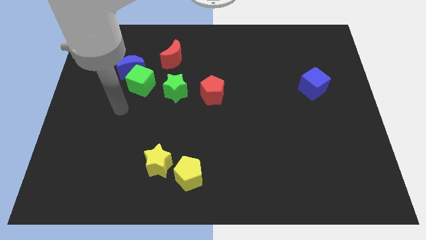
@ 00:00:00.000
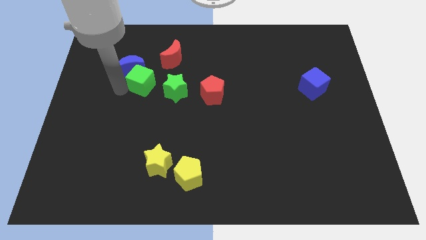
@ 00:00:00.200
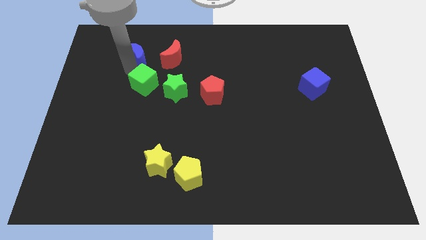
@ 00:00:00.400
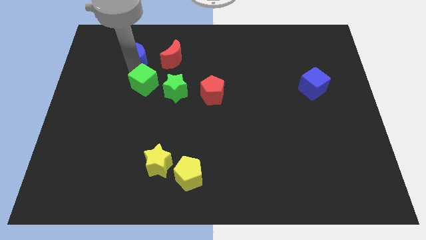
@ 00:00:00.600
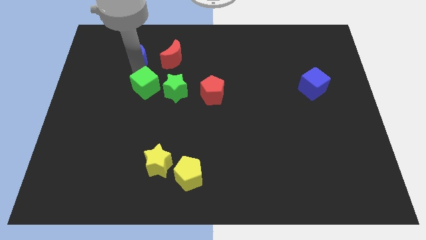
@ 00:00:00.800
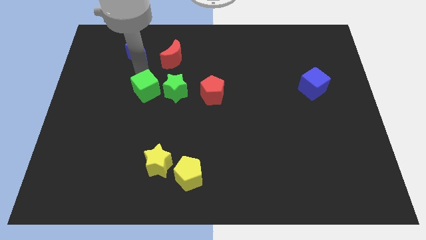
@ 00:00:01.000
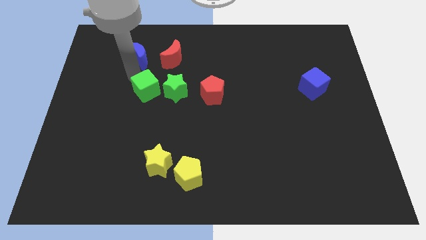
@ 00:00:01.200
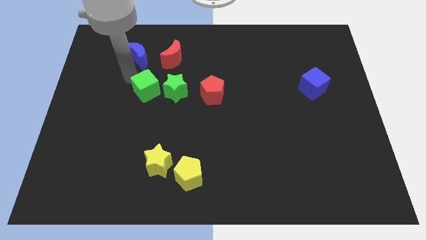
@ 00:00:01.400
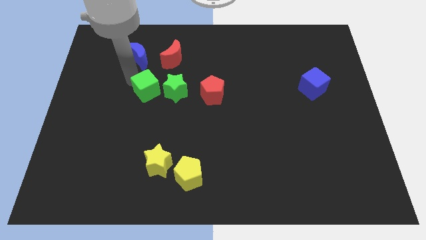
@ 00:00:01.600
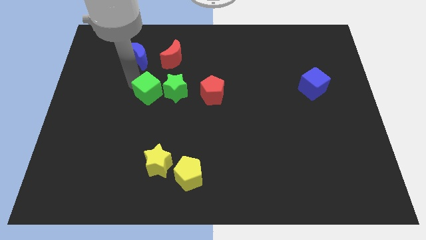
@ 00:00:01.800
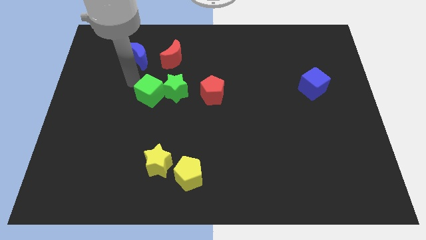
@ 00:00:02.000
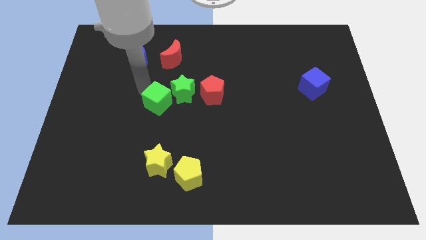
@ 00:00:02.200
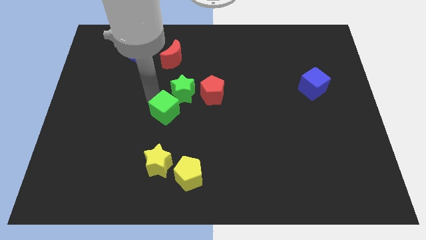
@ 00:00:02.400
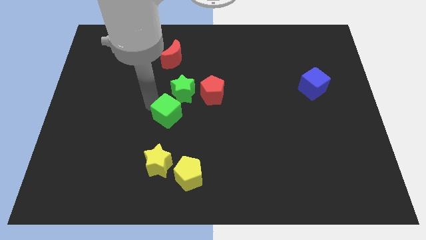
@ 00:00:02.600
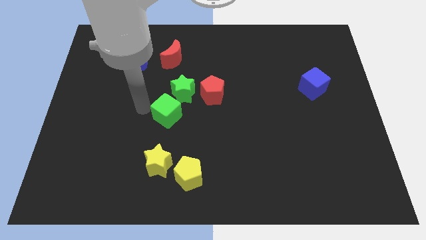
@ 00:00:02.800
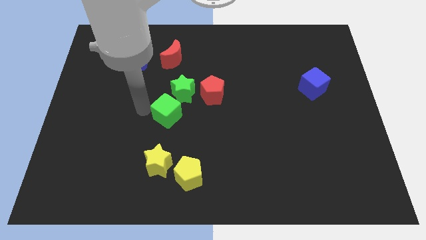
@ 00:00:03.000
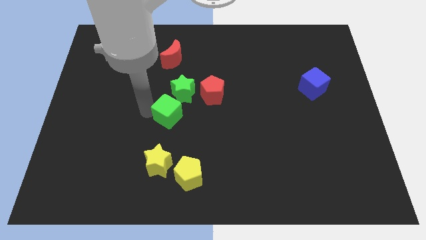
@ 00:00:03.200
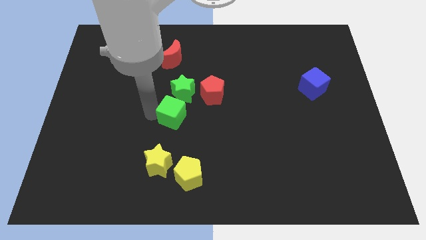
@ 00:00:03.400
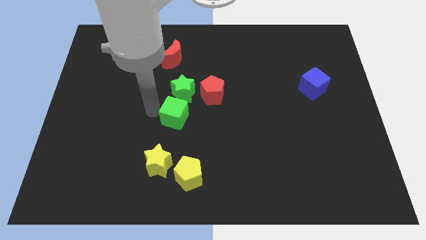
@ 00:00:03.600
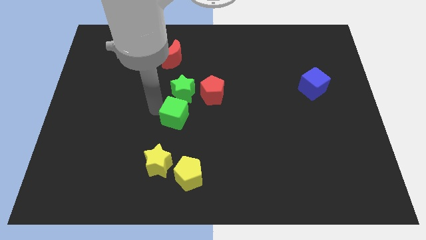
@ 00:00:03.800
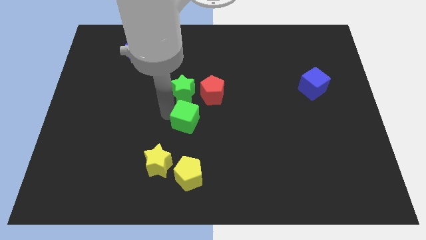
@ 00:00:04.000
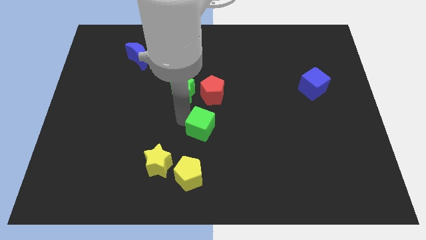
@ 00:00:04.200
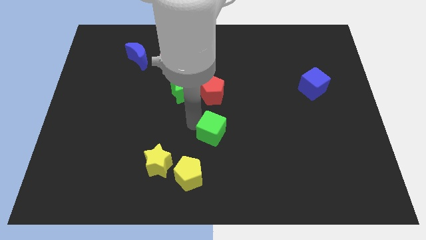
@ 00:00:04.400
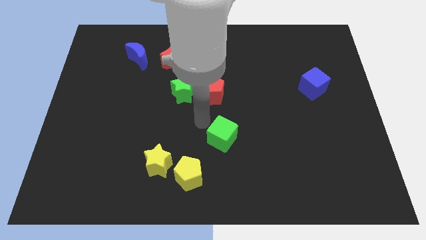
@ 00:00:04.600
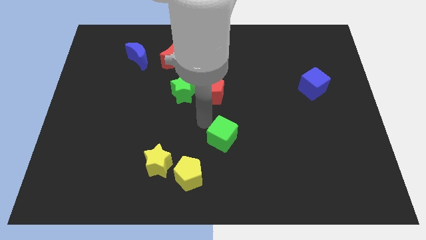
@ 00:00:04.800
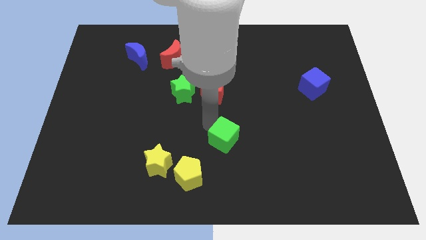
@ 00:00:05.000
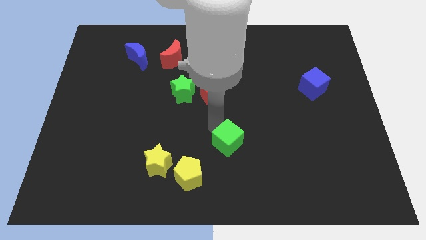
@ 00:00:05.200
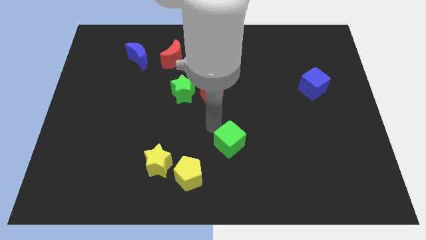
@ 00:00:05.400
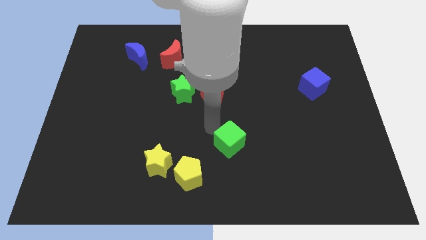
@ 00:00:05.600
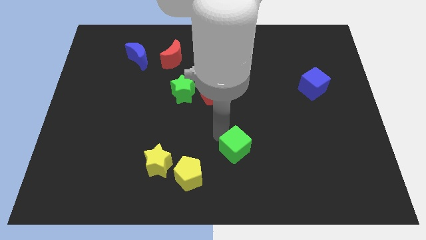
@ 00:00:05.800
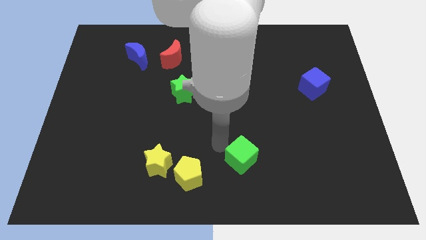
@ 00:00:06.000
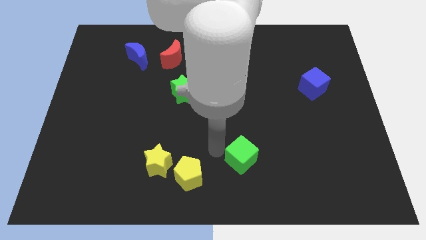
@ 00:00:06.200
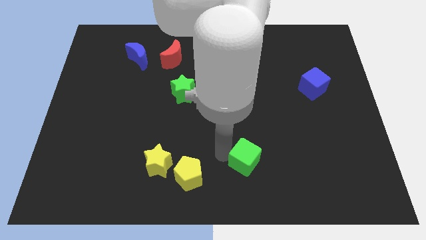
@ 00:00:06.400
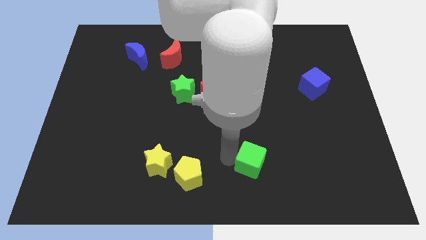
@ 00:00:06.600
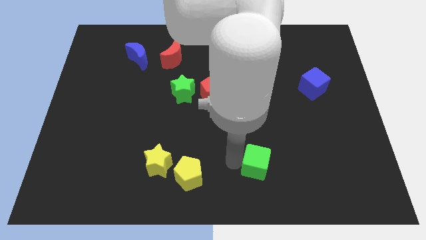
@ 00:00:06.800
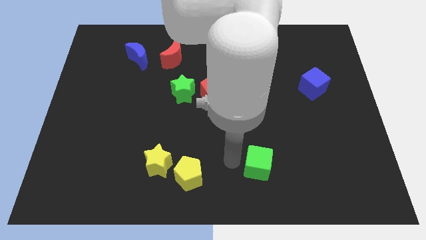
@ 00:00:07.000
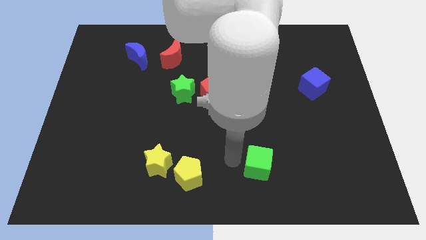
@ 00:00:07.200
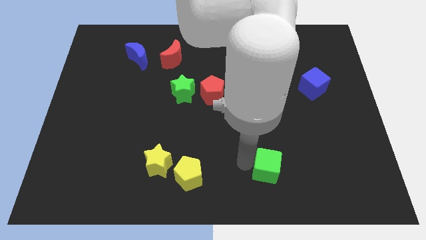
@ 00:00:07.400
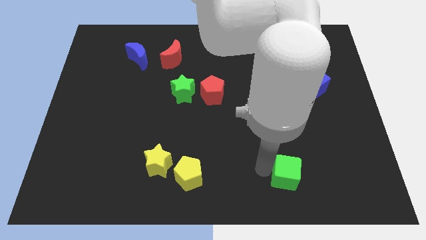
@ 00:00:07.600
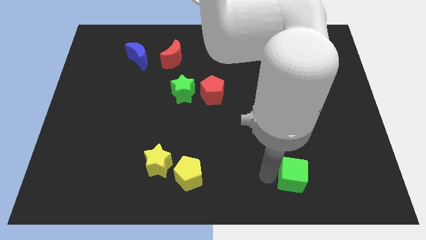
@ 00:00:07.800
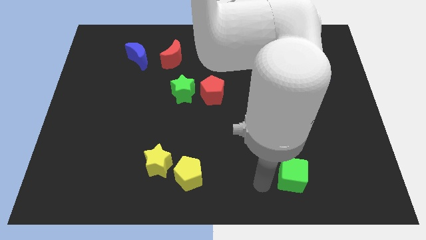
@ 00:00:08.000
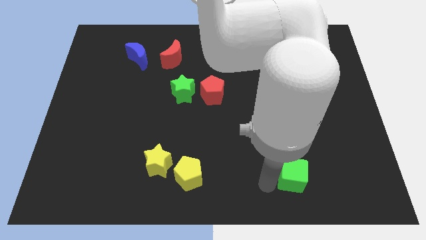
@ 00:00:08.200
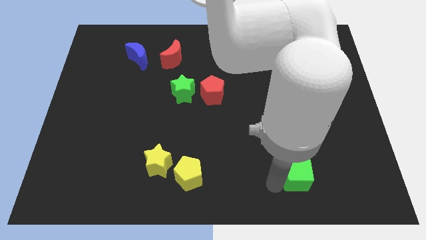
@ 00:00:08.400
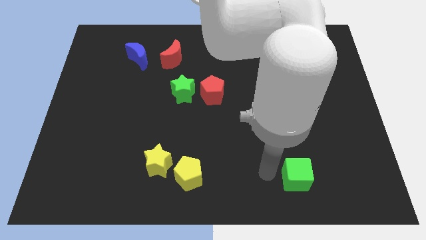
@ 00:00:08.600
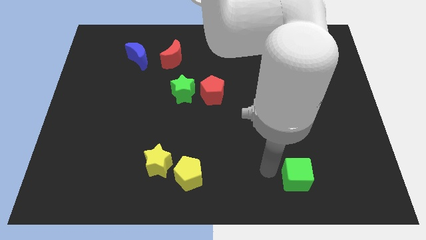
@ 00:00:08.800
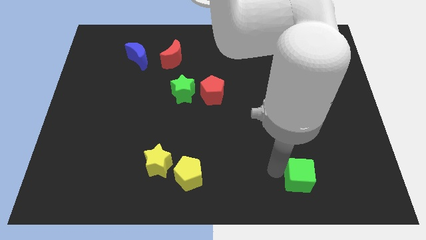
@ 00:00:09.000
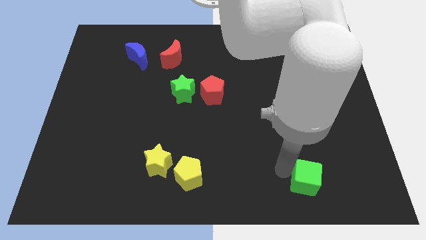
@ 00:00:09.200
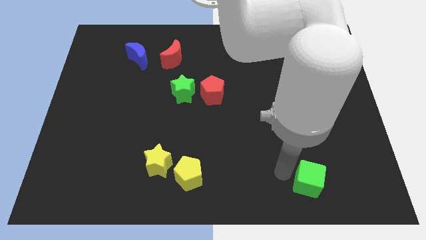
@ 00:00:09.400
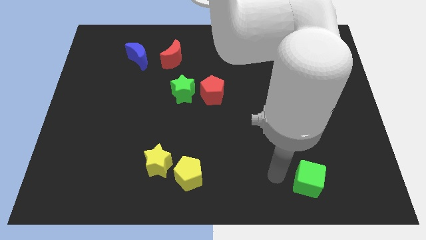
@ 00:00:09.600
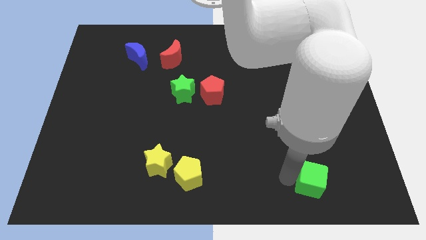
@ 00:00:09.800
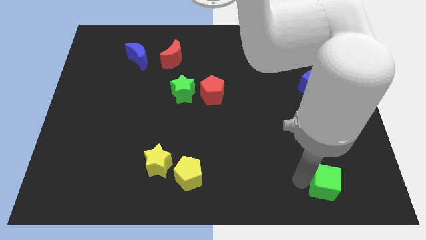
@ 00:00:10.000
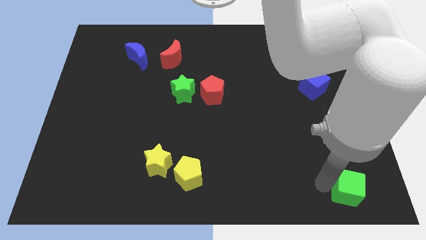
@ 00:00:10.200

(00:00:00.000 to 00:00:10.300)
slide the green cube to the bottom right of the board

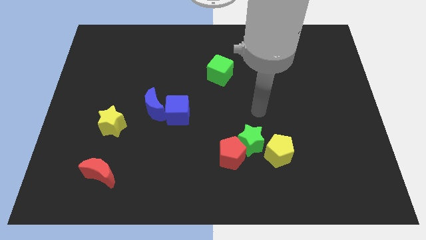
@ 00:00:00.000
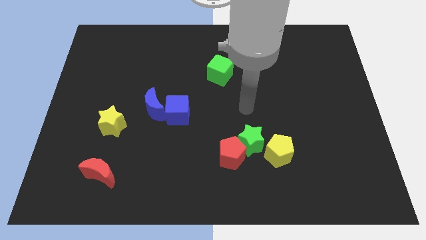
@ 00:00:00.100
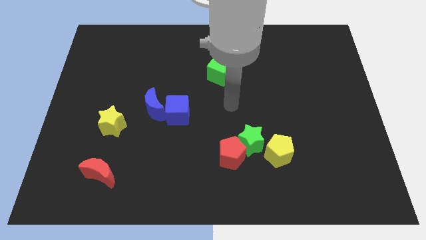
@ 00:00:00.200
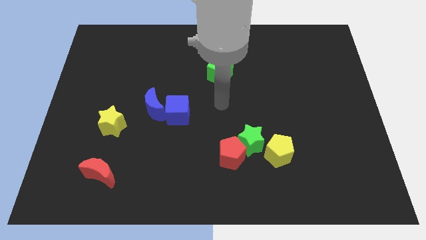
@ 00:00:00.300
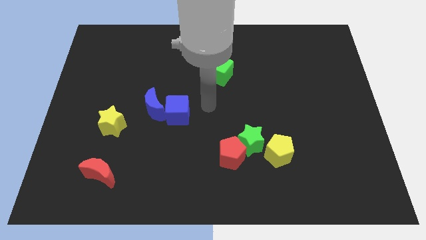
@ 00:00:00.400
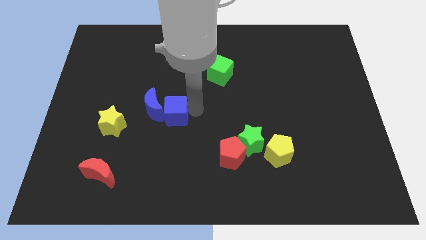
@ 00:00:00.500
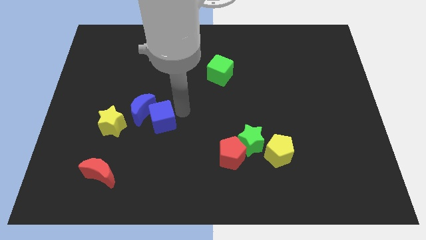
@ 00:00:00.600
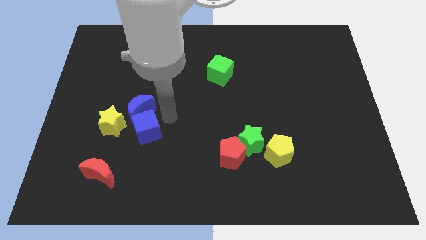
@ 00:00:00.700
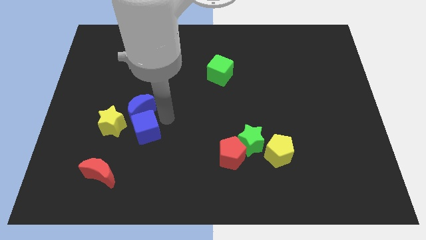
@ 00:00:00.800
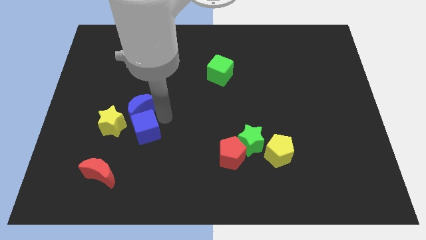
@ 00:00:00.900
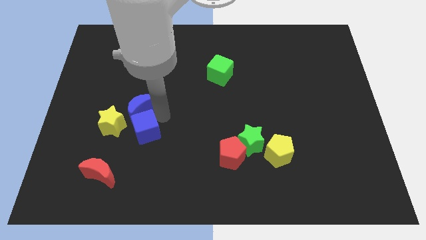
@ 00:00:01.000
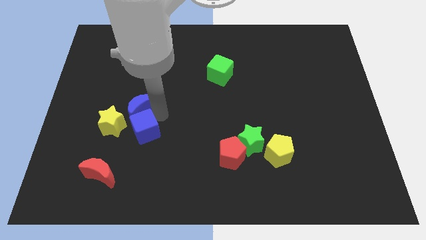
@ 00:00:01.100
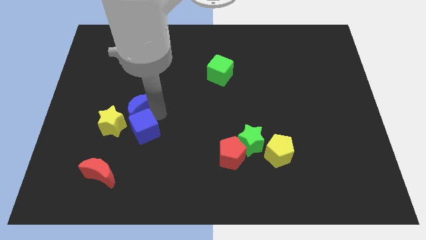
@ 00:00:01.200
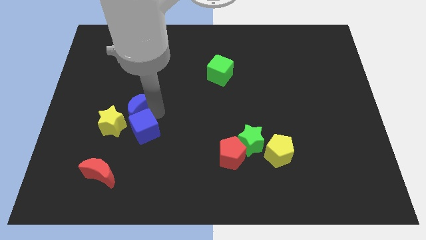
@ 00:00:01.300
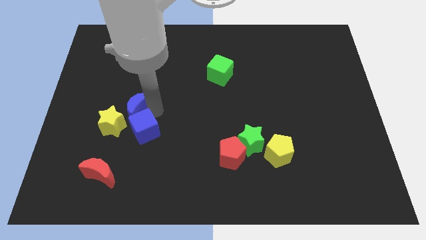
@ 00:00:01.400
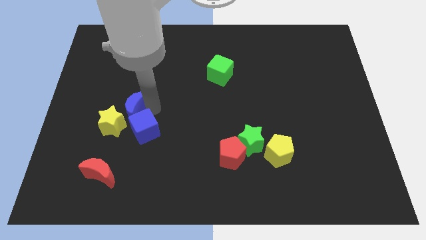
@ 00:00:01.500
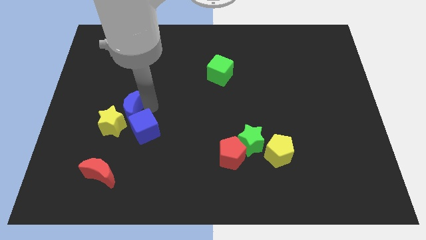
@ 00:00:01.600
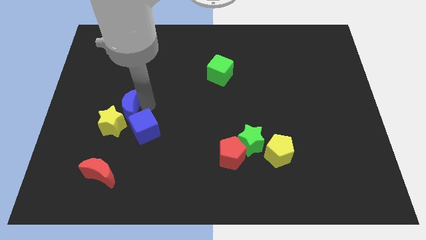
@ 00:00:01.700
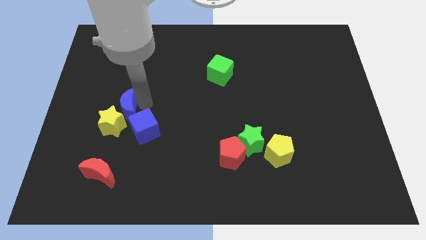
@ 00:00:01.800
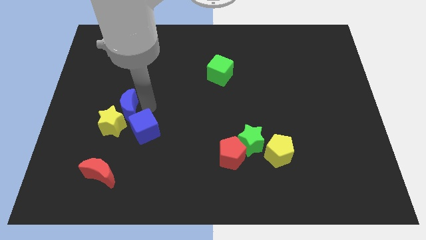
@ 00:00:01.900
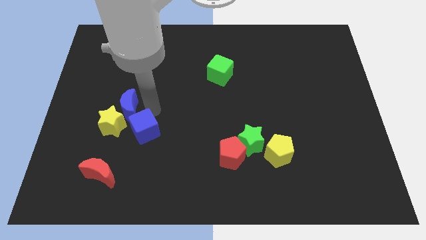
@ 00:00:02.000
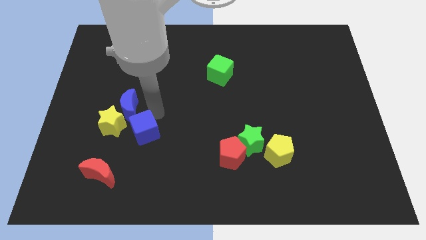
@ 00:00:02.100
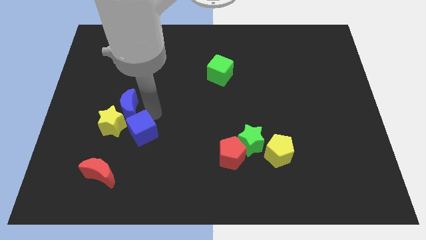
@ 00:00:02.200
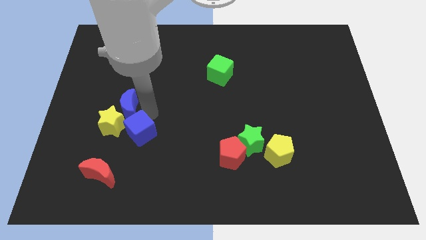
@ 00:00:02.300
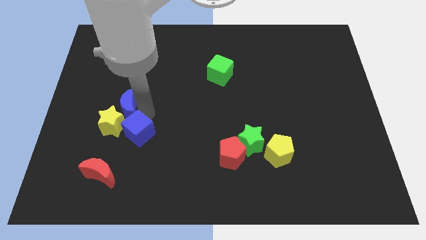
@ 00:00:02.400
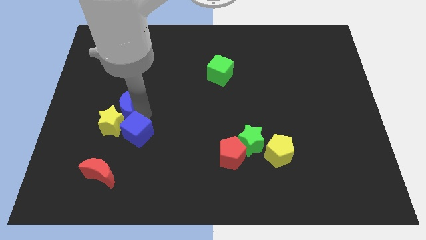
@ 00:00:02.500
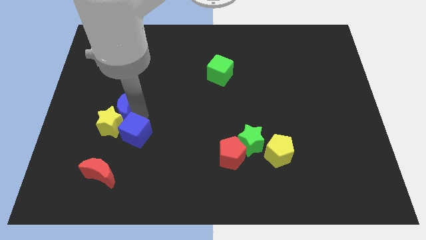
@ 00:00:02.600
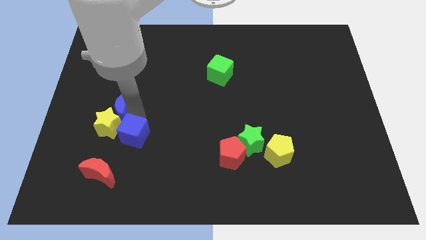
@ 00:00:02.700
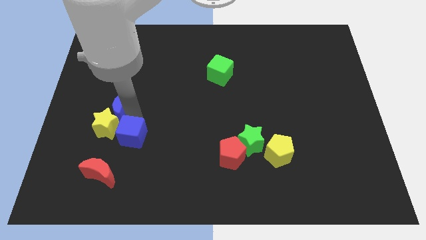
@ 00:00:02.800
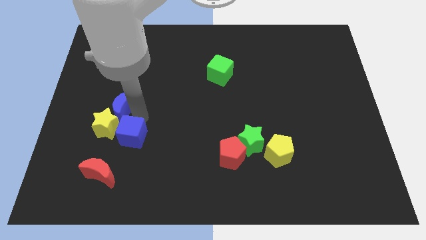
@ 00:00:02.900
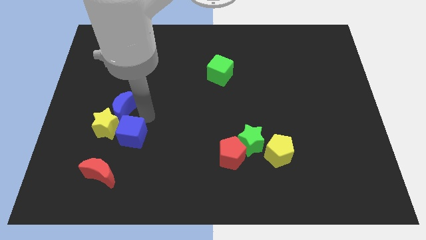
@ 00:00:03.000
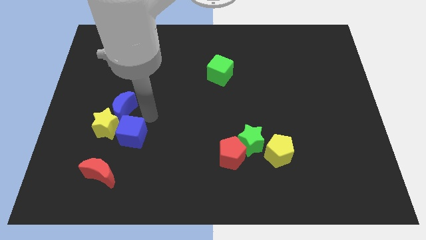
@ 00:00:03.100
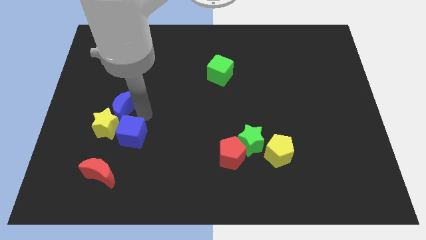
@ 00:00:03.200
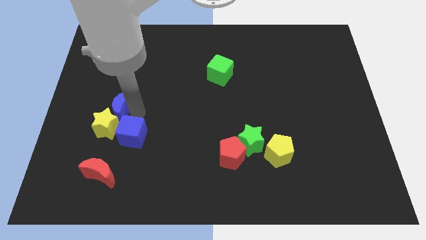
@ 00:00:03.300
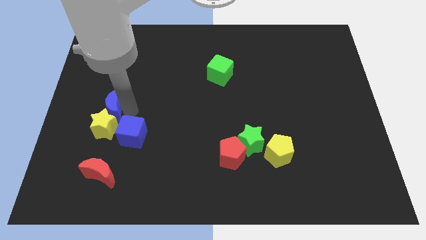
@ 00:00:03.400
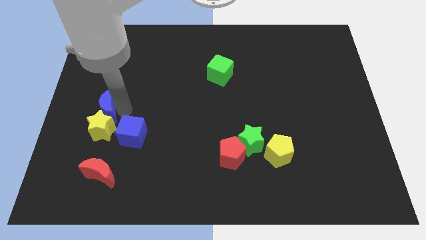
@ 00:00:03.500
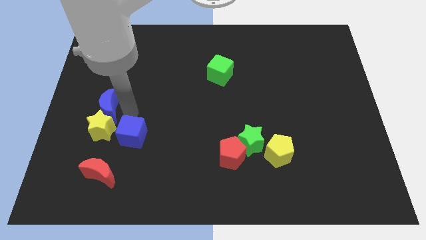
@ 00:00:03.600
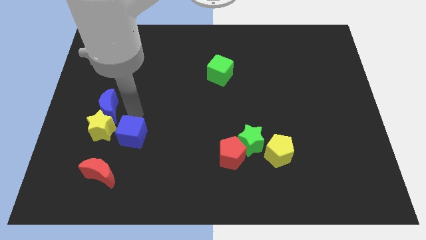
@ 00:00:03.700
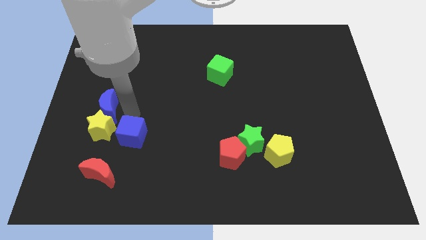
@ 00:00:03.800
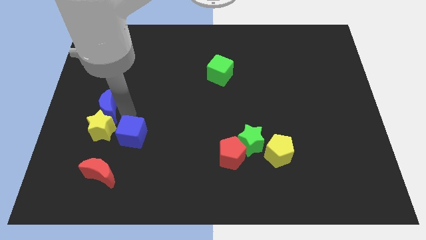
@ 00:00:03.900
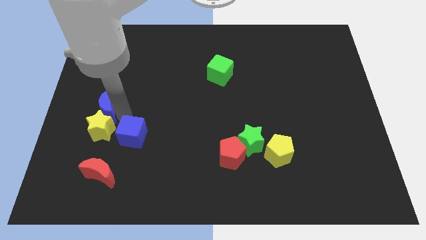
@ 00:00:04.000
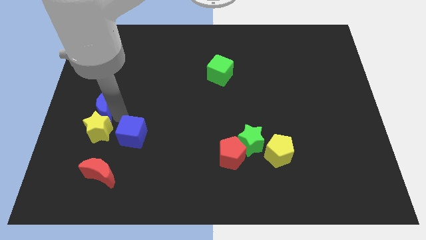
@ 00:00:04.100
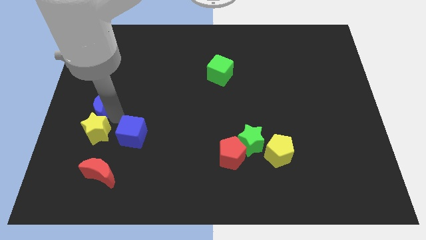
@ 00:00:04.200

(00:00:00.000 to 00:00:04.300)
move the blue moon to the center left
